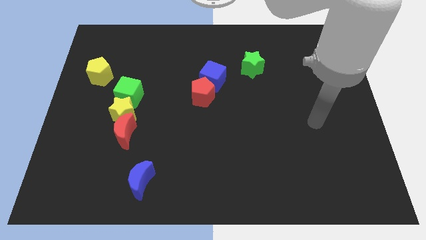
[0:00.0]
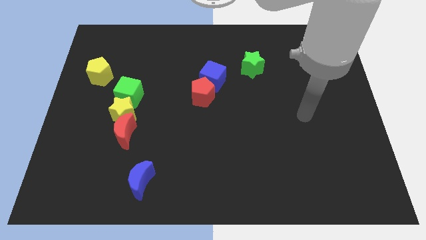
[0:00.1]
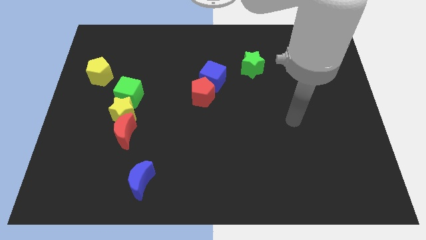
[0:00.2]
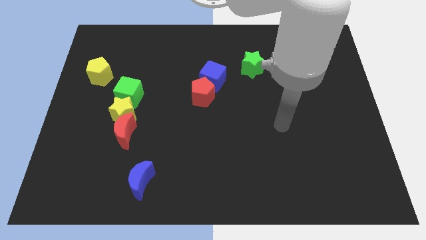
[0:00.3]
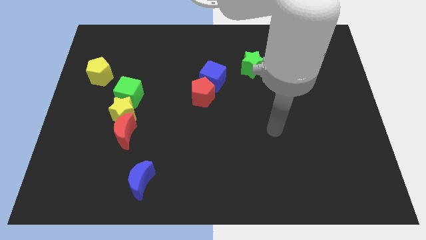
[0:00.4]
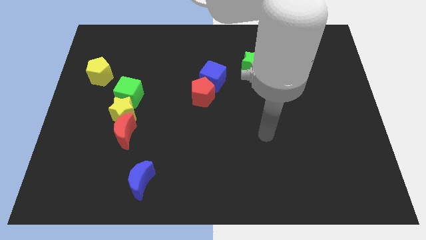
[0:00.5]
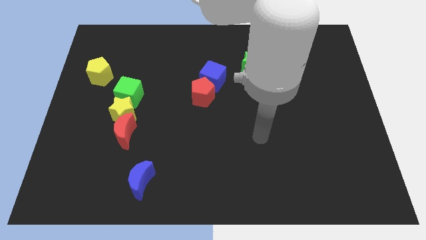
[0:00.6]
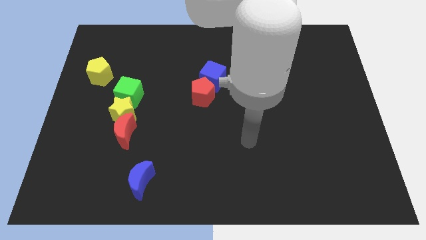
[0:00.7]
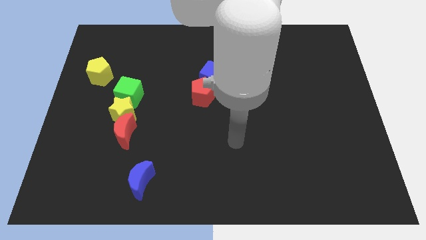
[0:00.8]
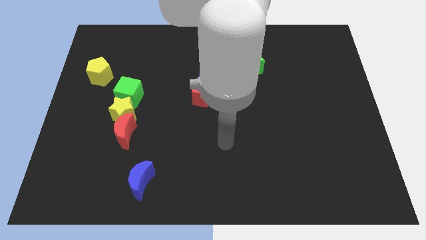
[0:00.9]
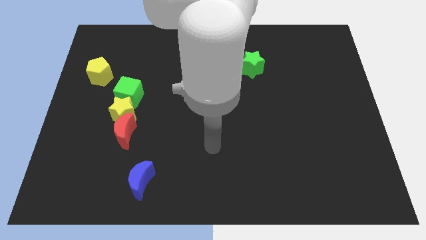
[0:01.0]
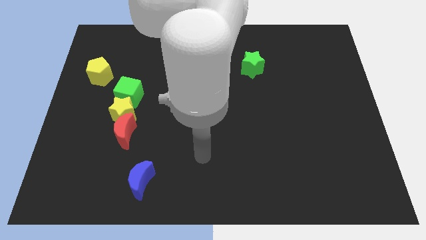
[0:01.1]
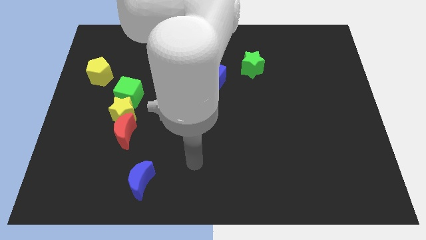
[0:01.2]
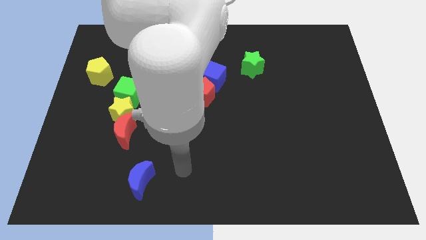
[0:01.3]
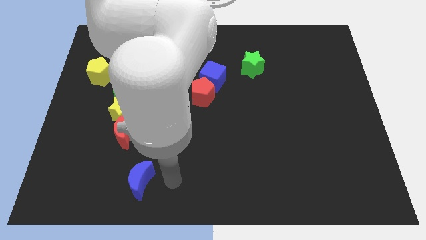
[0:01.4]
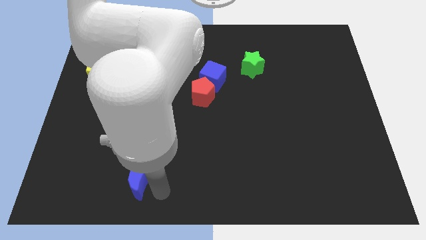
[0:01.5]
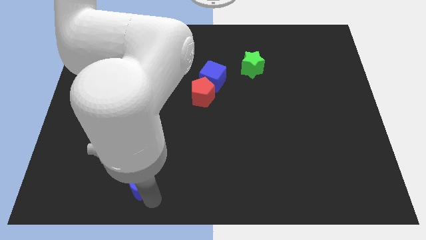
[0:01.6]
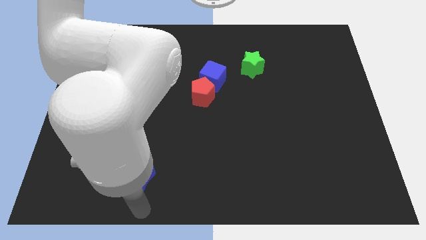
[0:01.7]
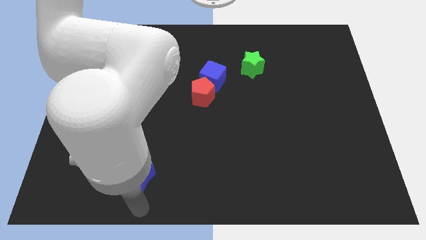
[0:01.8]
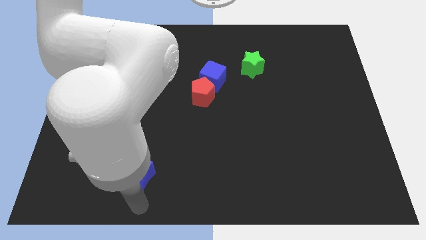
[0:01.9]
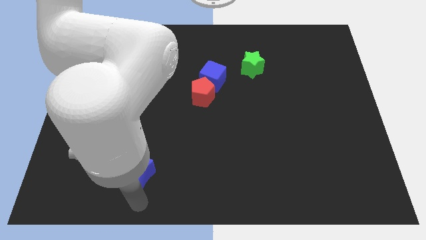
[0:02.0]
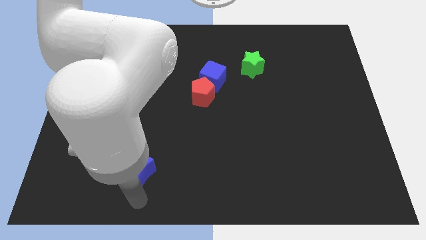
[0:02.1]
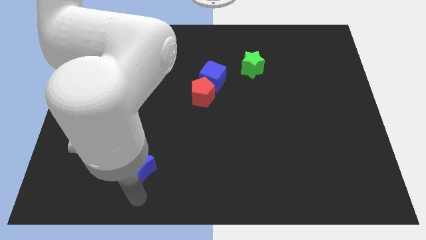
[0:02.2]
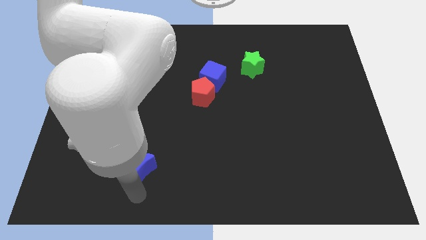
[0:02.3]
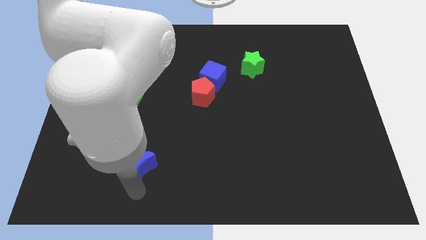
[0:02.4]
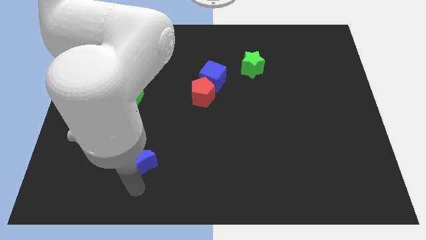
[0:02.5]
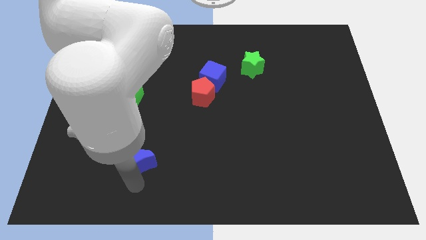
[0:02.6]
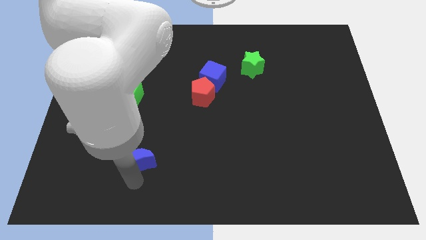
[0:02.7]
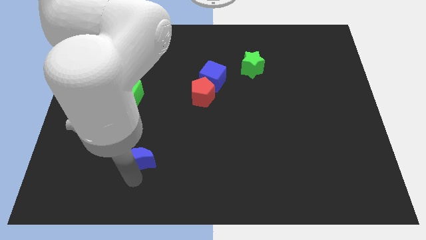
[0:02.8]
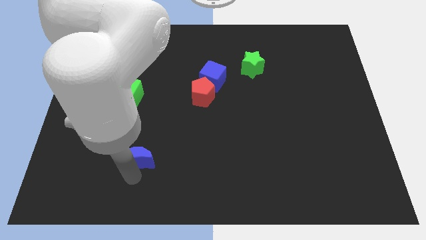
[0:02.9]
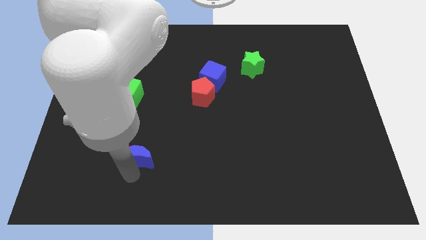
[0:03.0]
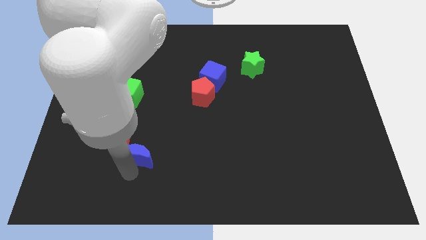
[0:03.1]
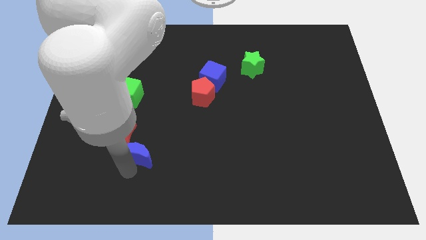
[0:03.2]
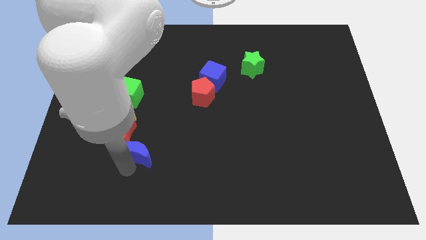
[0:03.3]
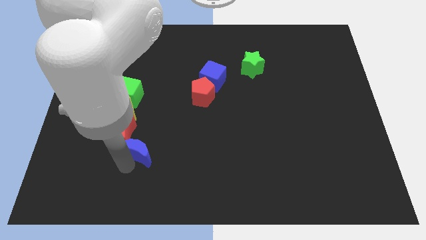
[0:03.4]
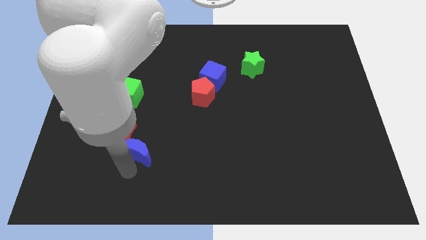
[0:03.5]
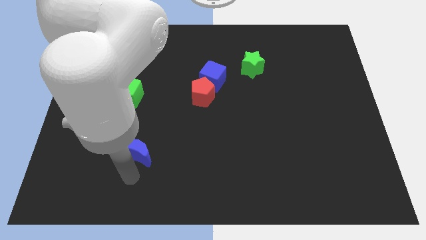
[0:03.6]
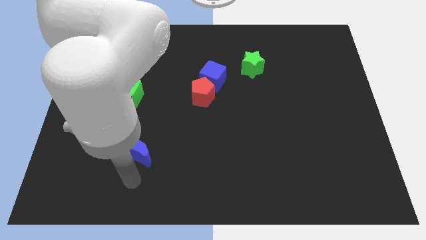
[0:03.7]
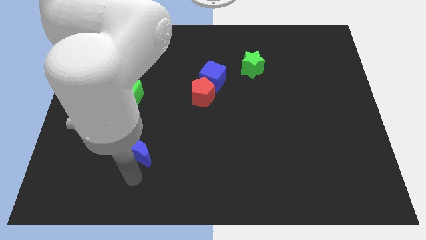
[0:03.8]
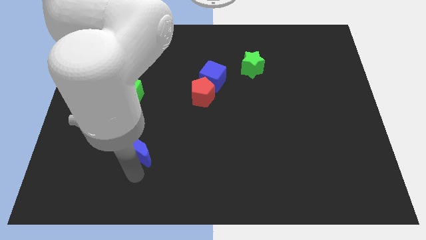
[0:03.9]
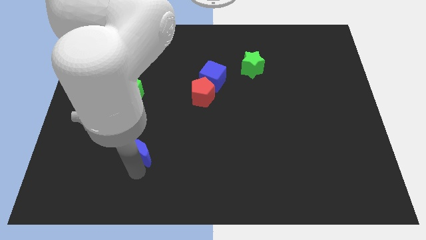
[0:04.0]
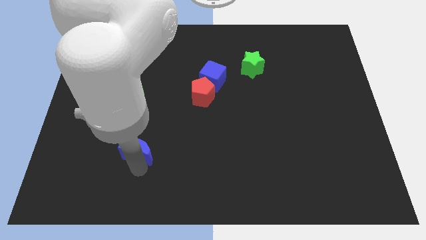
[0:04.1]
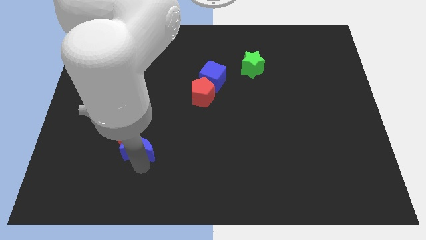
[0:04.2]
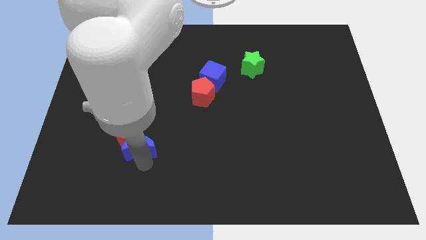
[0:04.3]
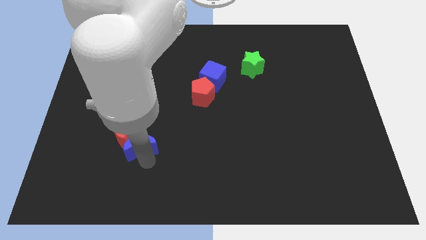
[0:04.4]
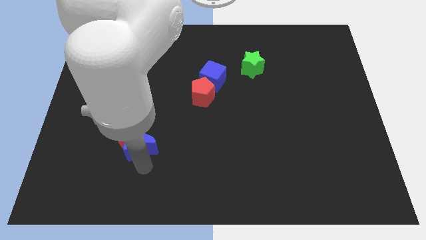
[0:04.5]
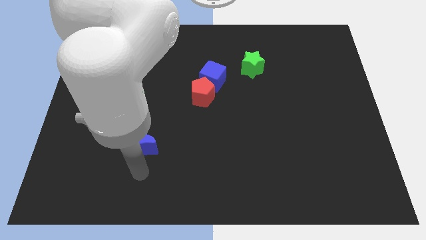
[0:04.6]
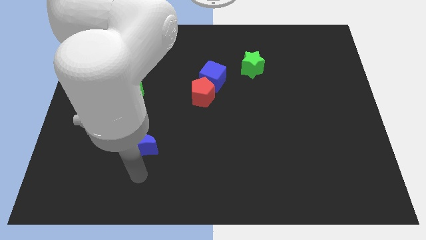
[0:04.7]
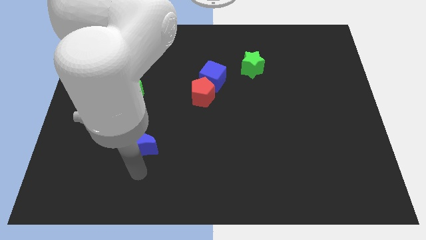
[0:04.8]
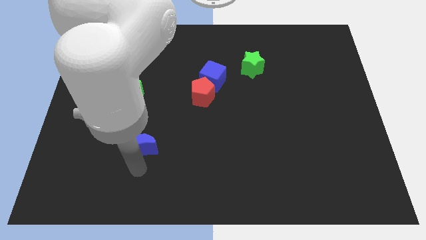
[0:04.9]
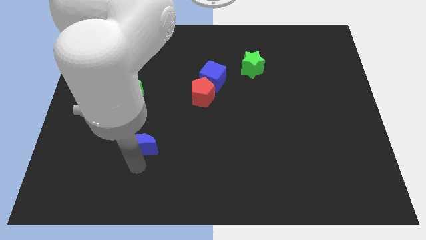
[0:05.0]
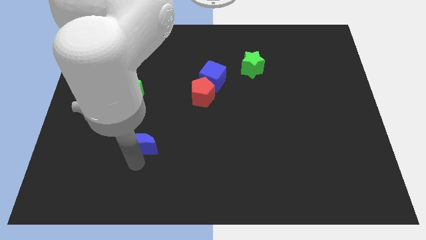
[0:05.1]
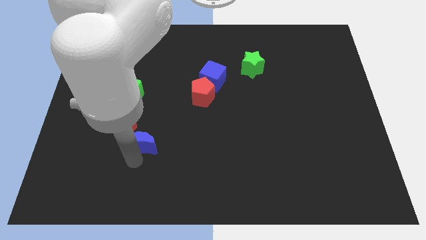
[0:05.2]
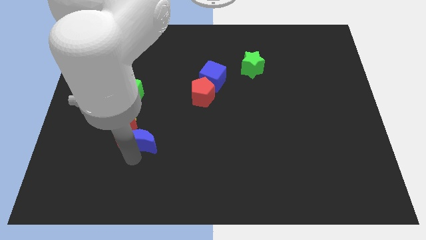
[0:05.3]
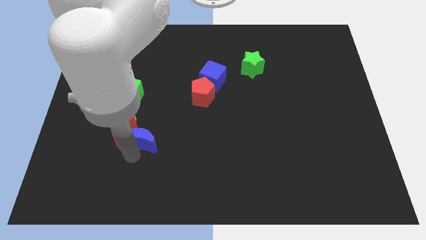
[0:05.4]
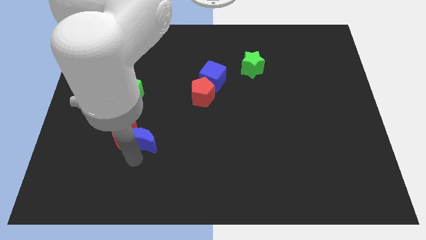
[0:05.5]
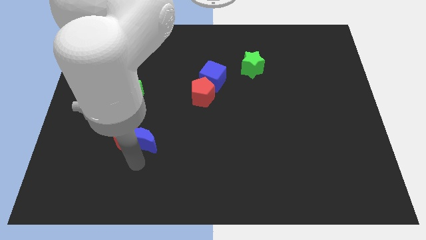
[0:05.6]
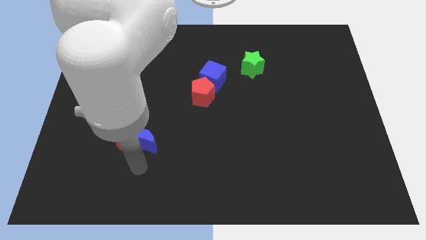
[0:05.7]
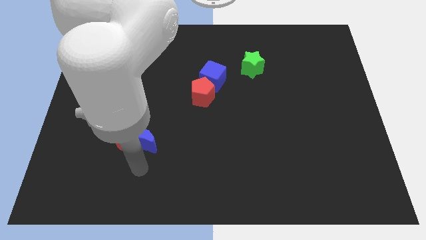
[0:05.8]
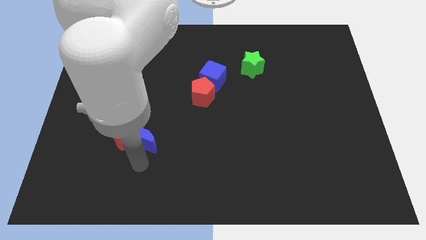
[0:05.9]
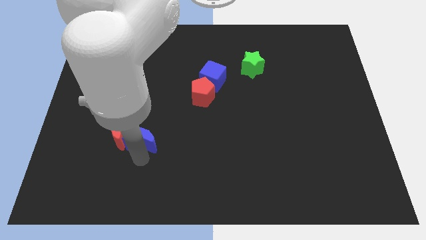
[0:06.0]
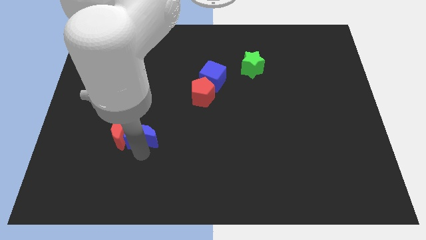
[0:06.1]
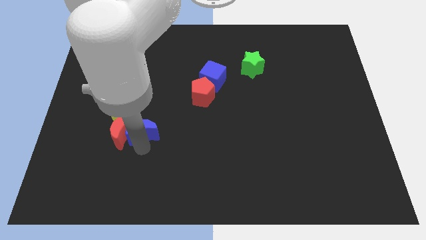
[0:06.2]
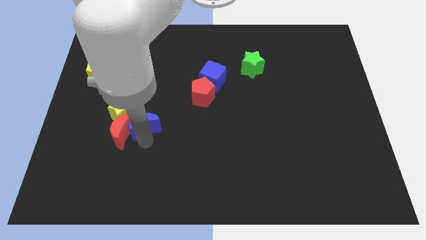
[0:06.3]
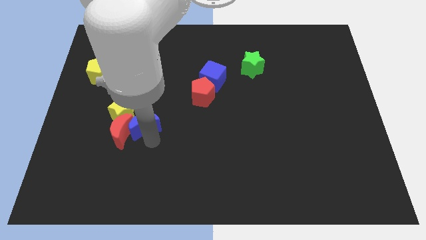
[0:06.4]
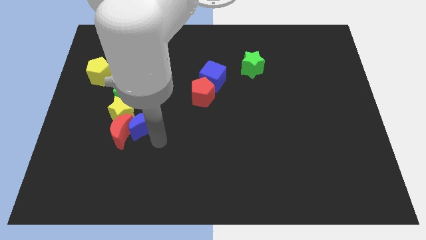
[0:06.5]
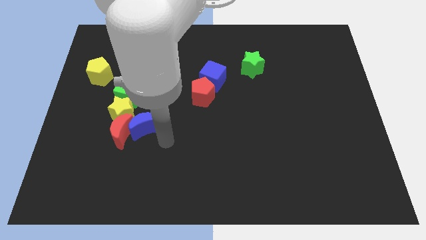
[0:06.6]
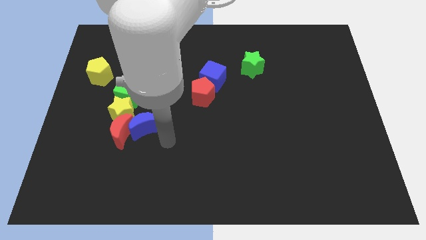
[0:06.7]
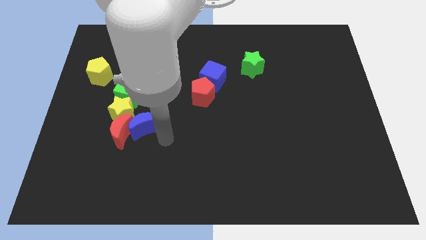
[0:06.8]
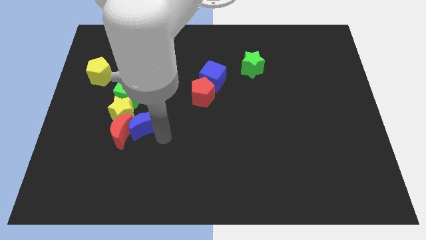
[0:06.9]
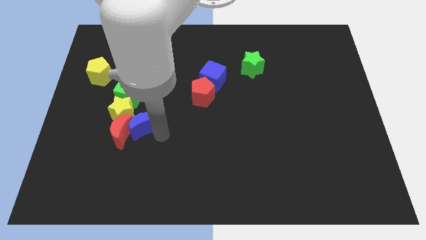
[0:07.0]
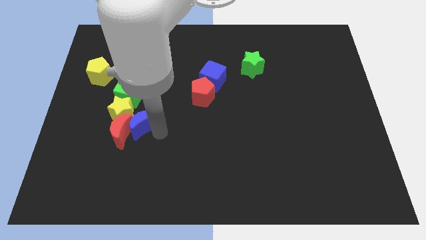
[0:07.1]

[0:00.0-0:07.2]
move the blue moon towards the yellow star

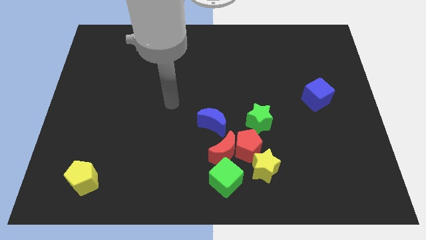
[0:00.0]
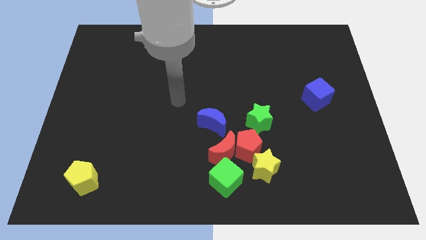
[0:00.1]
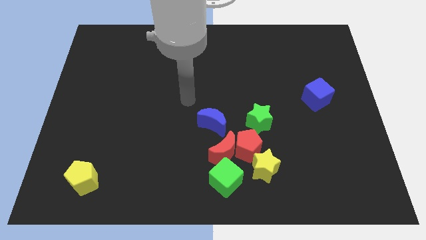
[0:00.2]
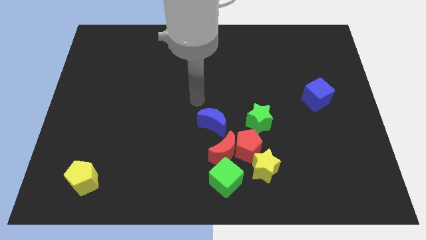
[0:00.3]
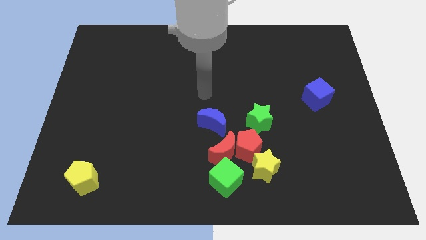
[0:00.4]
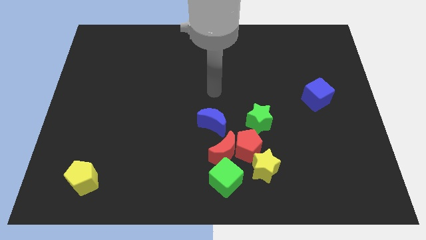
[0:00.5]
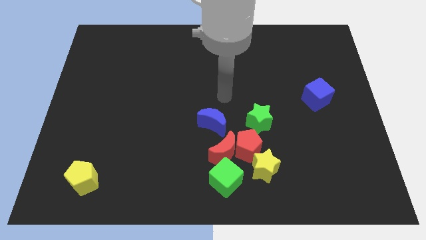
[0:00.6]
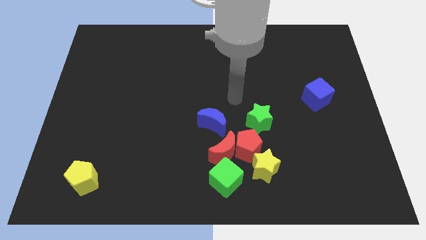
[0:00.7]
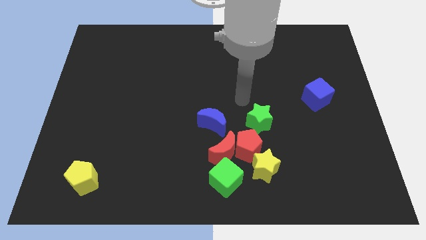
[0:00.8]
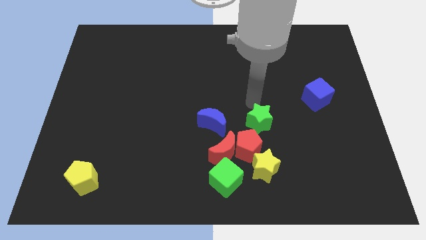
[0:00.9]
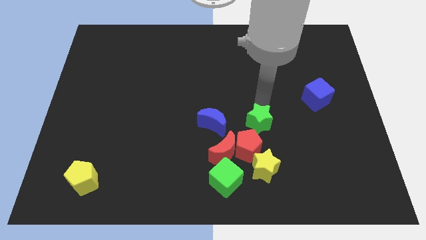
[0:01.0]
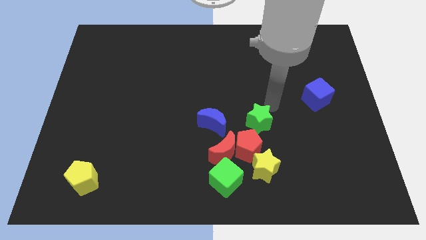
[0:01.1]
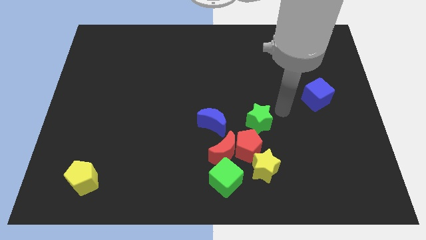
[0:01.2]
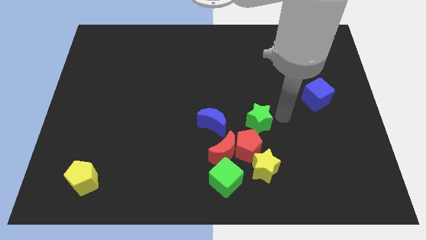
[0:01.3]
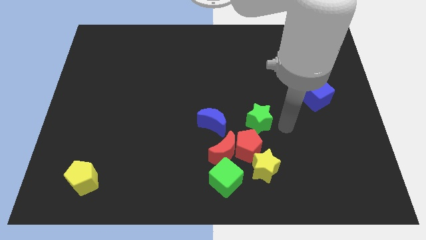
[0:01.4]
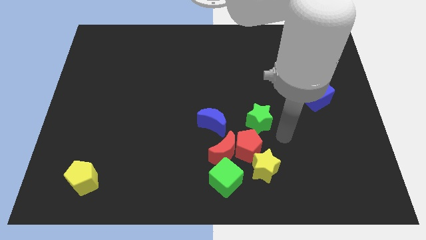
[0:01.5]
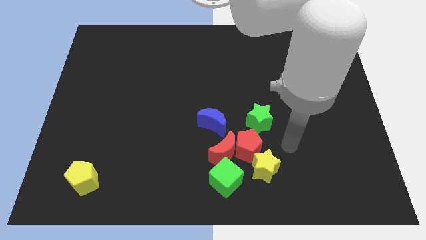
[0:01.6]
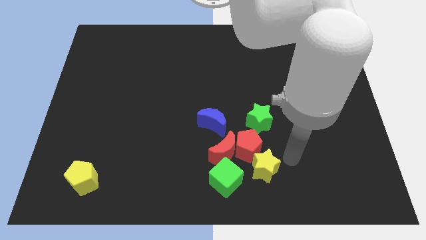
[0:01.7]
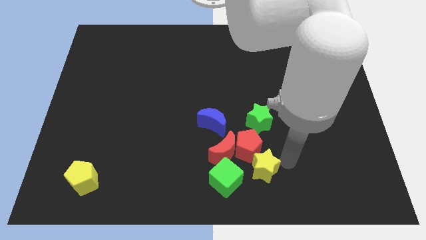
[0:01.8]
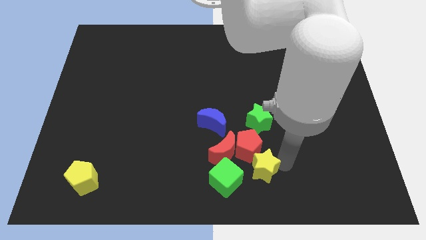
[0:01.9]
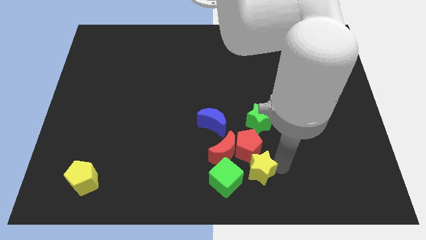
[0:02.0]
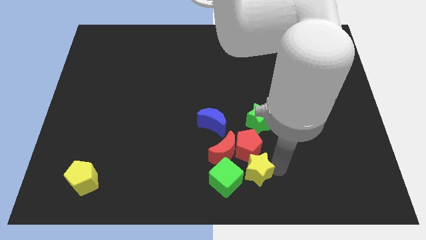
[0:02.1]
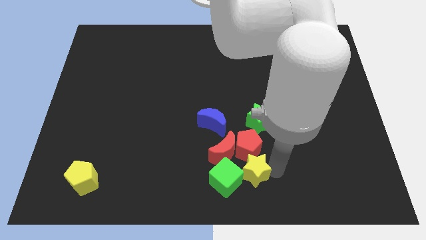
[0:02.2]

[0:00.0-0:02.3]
slide the yellow star towards the green cube
